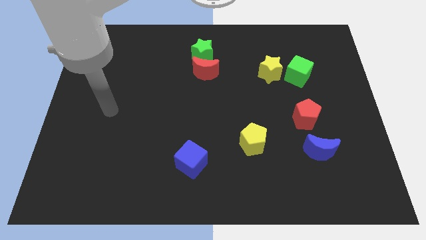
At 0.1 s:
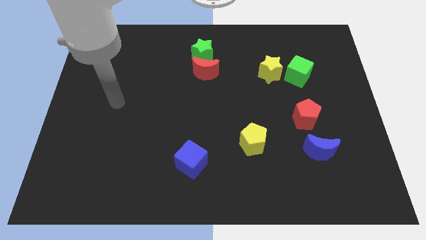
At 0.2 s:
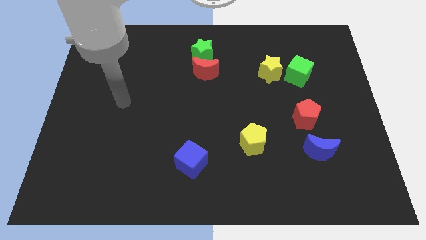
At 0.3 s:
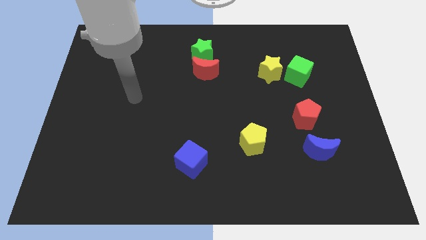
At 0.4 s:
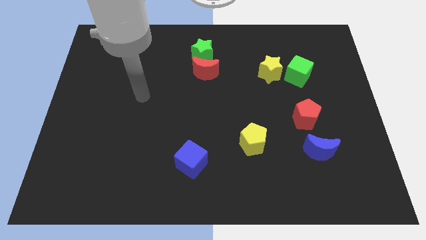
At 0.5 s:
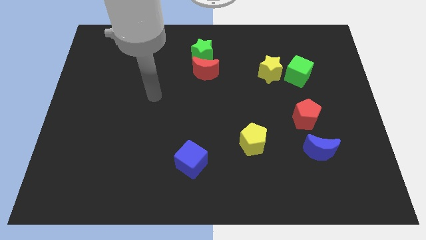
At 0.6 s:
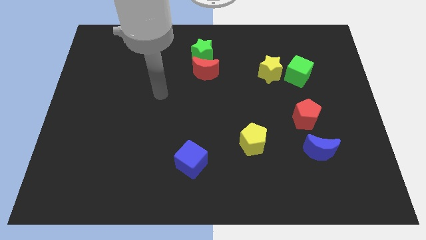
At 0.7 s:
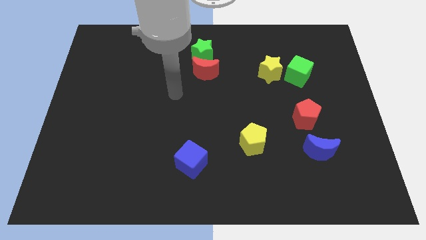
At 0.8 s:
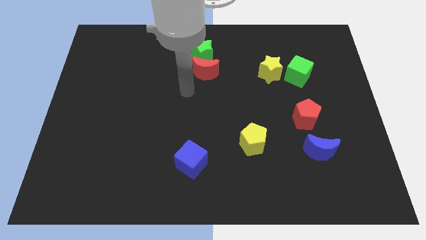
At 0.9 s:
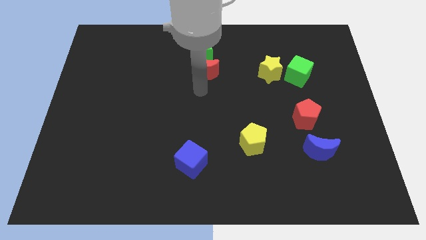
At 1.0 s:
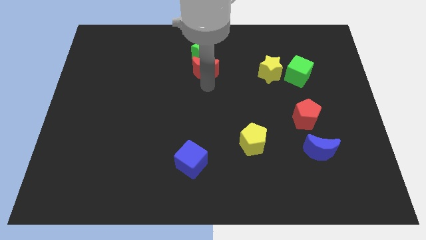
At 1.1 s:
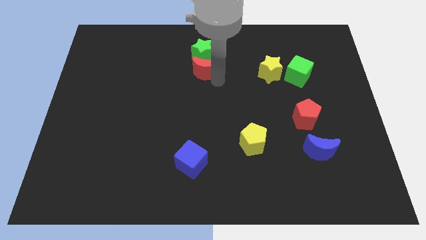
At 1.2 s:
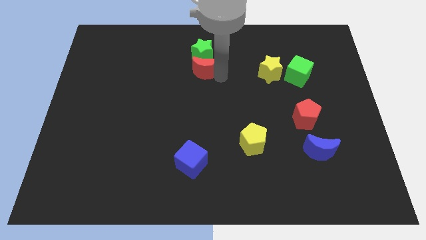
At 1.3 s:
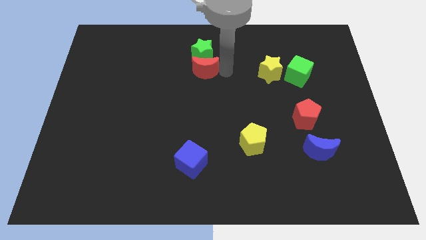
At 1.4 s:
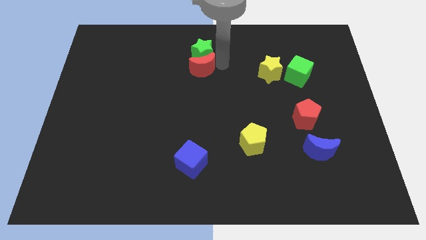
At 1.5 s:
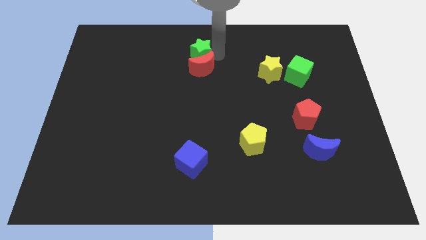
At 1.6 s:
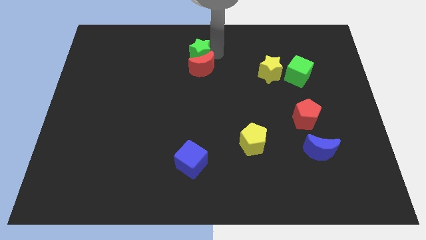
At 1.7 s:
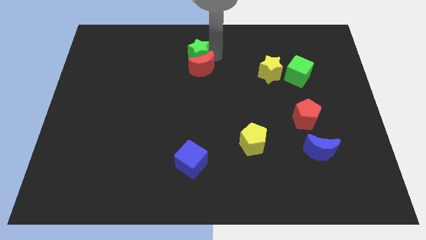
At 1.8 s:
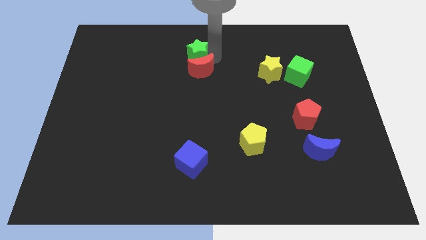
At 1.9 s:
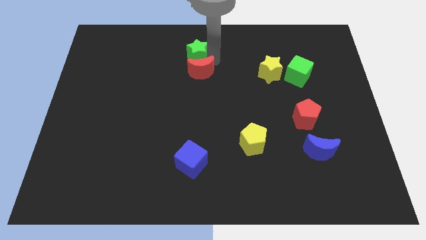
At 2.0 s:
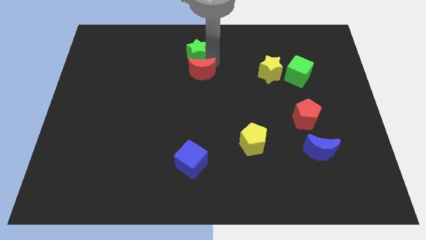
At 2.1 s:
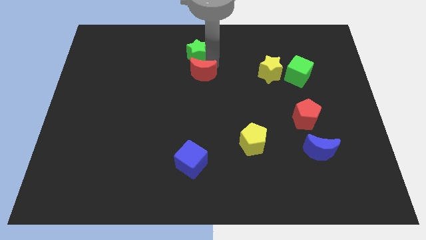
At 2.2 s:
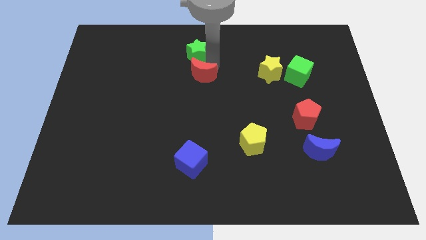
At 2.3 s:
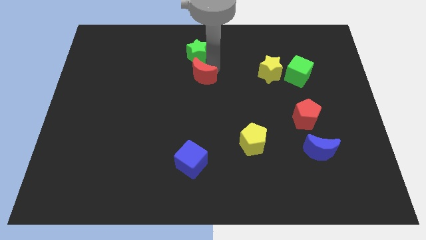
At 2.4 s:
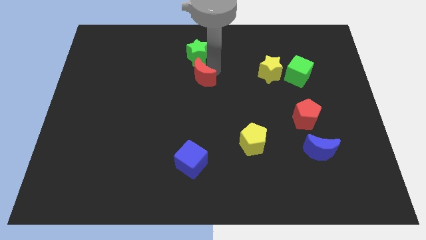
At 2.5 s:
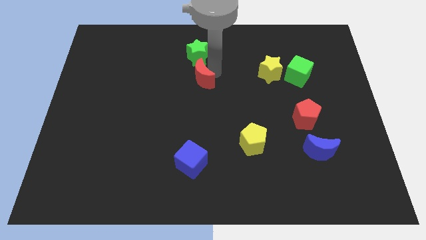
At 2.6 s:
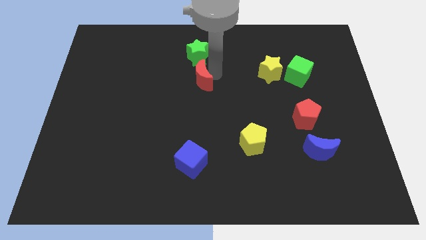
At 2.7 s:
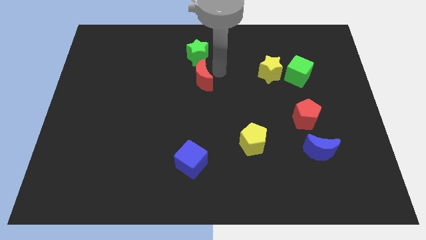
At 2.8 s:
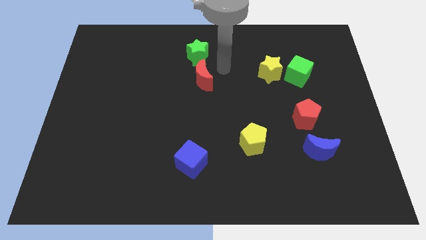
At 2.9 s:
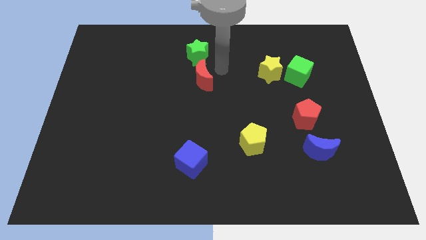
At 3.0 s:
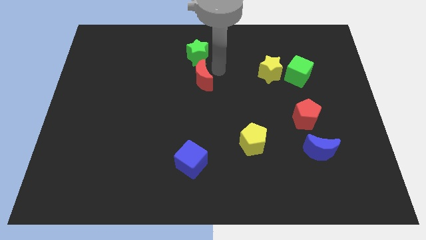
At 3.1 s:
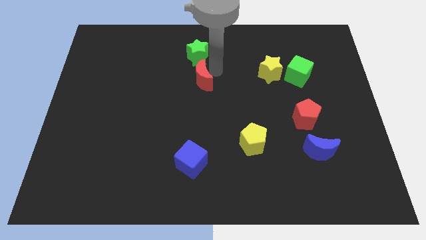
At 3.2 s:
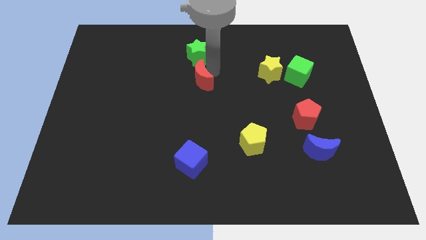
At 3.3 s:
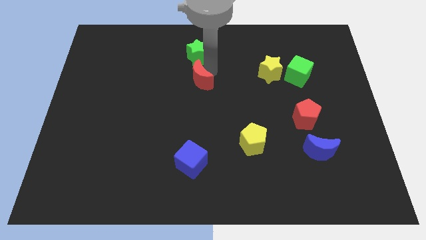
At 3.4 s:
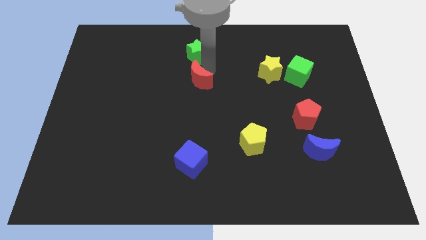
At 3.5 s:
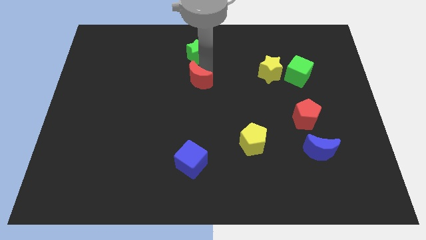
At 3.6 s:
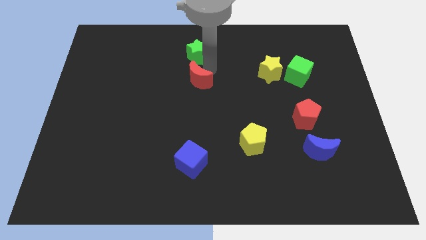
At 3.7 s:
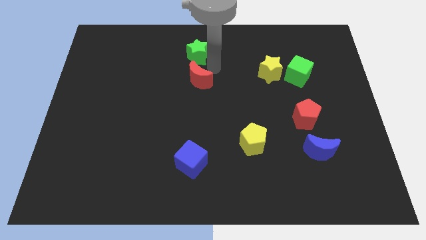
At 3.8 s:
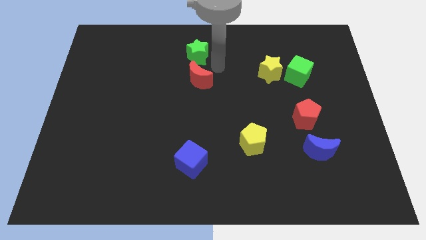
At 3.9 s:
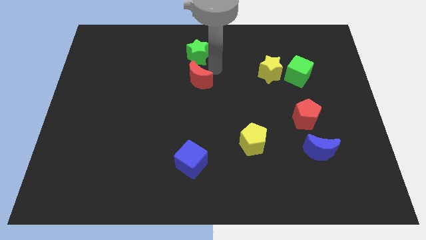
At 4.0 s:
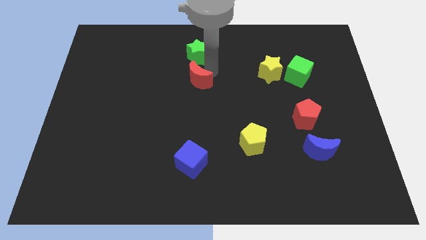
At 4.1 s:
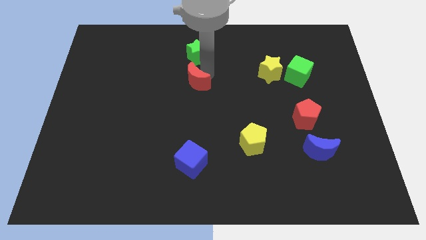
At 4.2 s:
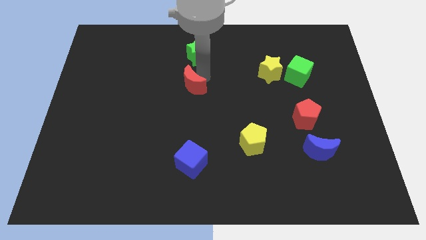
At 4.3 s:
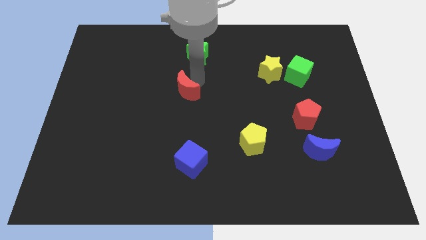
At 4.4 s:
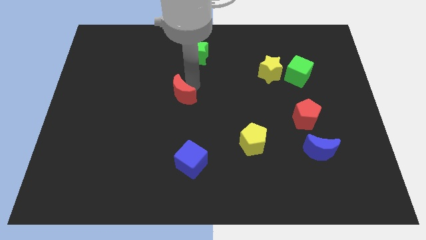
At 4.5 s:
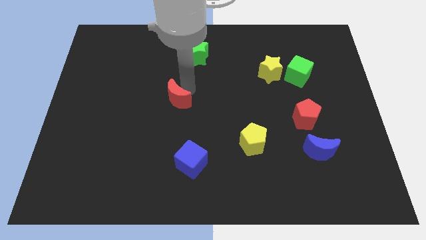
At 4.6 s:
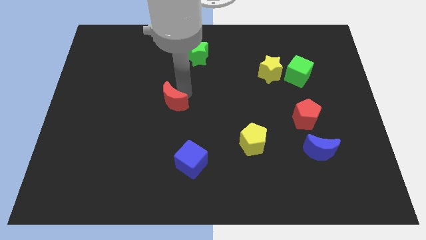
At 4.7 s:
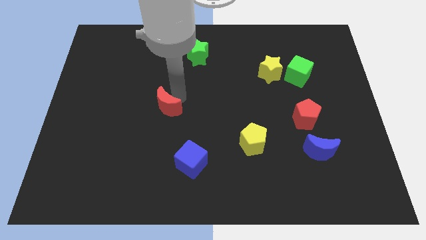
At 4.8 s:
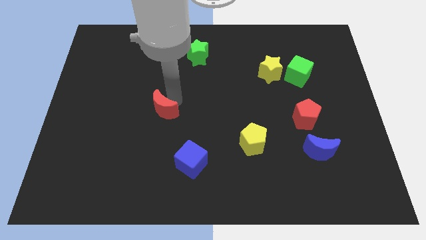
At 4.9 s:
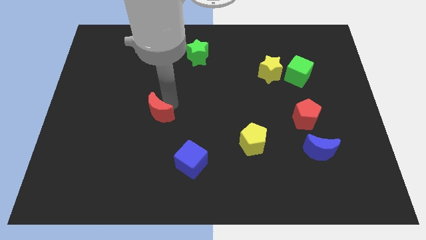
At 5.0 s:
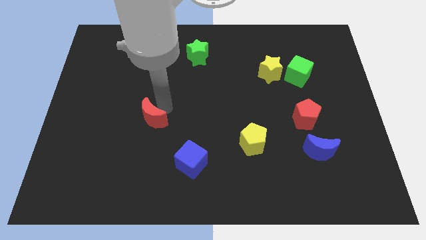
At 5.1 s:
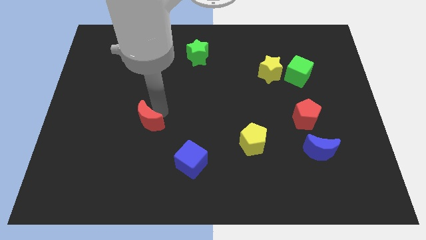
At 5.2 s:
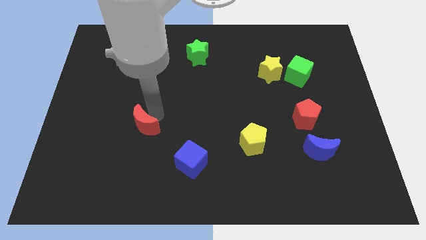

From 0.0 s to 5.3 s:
push the red moon downwards and left diagonally

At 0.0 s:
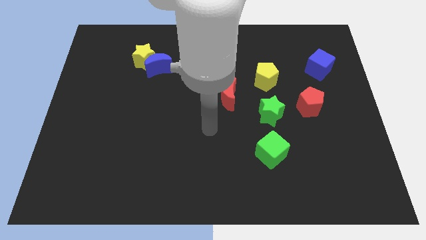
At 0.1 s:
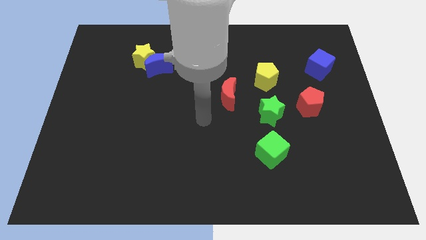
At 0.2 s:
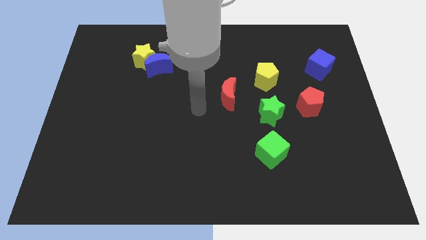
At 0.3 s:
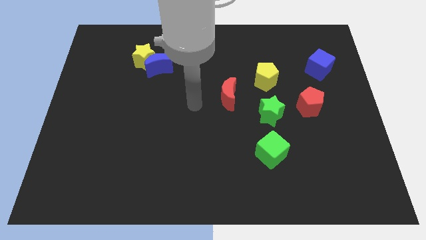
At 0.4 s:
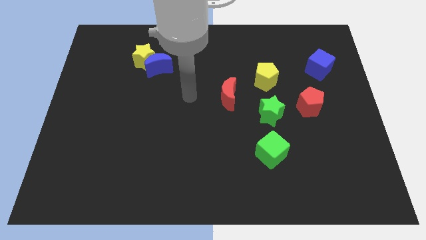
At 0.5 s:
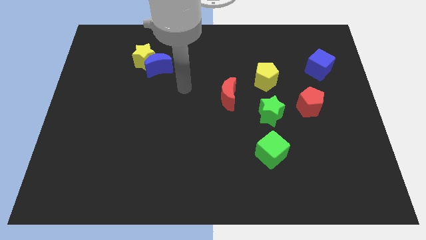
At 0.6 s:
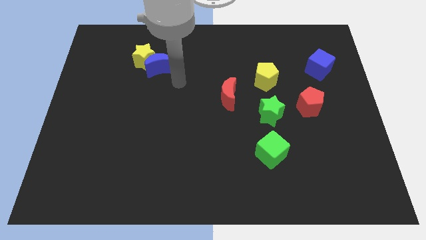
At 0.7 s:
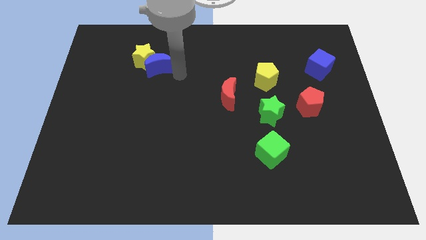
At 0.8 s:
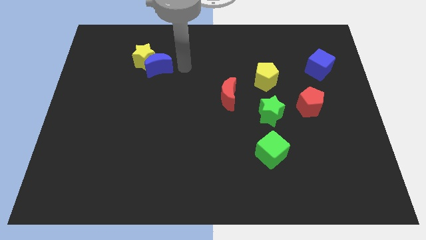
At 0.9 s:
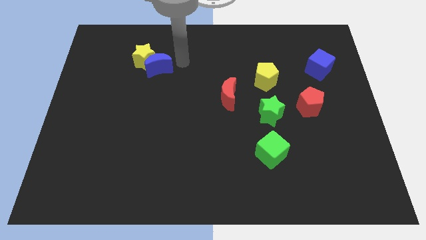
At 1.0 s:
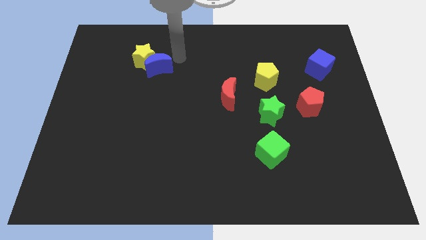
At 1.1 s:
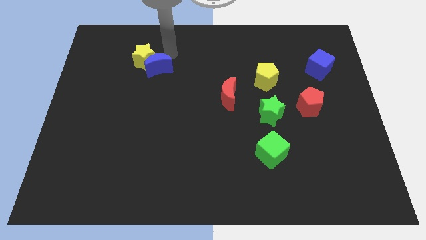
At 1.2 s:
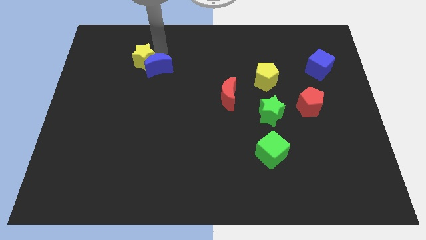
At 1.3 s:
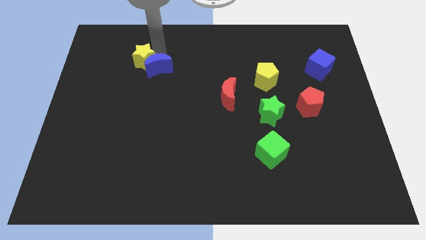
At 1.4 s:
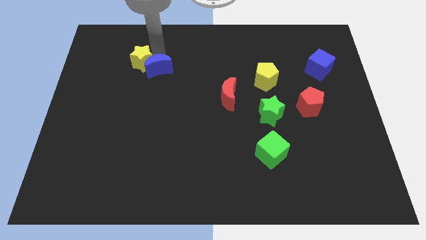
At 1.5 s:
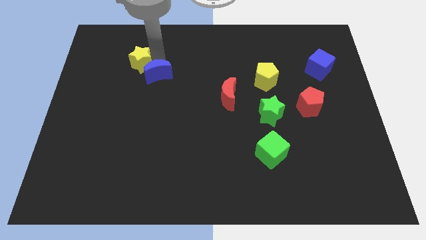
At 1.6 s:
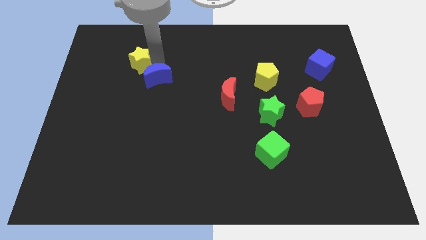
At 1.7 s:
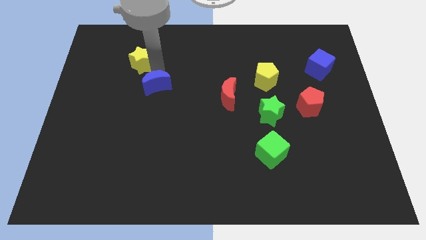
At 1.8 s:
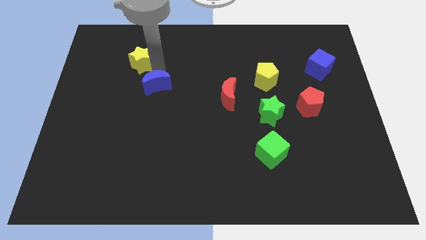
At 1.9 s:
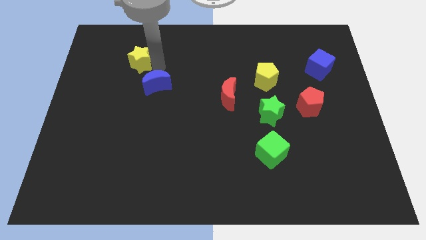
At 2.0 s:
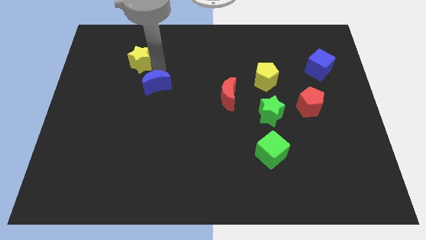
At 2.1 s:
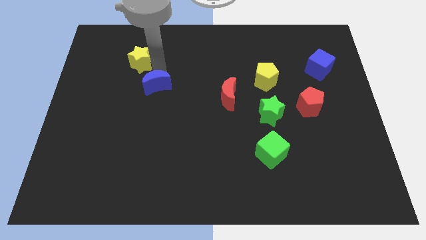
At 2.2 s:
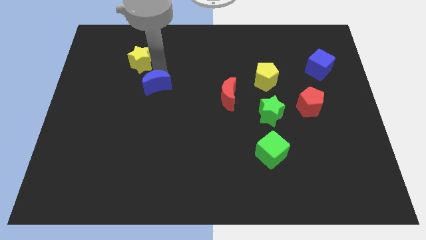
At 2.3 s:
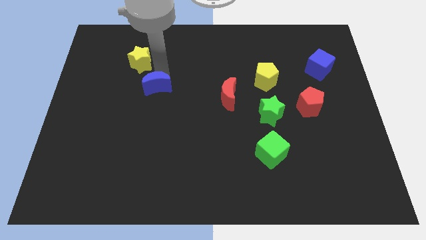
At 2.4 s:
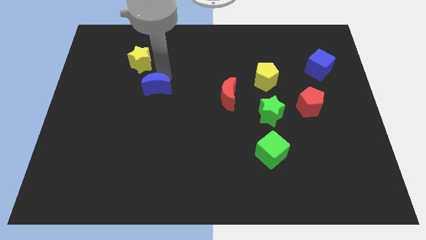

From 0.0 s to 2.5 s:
slide the blue moon down slightly

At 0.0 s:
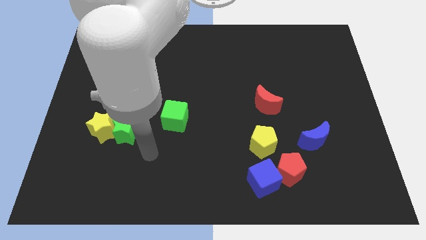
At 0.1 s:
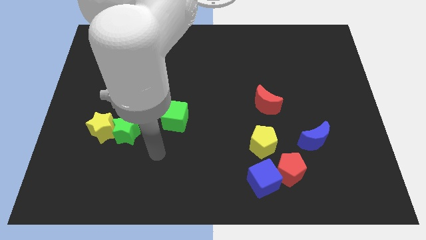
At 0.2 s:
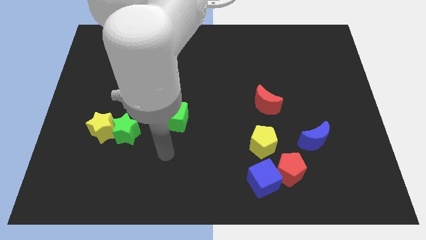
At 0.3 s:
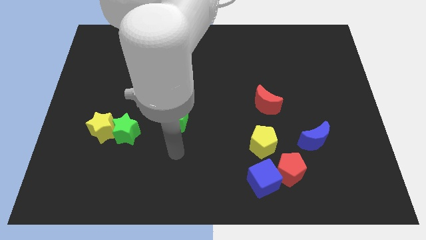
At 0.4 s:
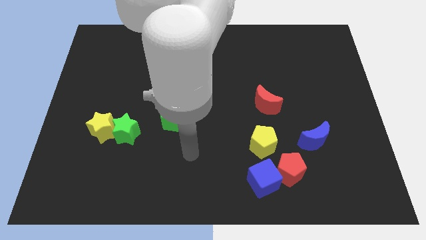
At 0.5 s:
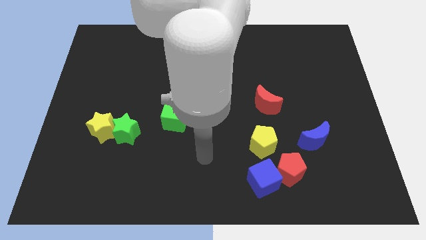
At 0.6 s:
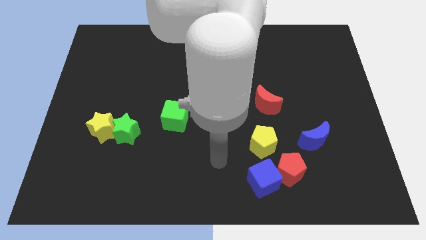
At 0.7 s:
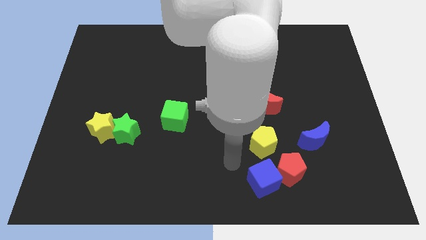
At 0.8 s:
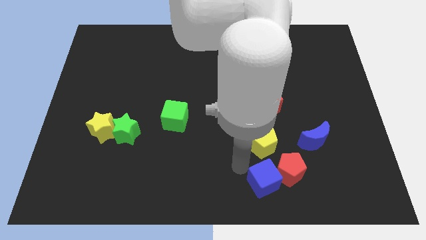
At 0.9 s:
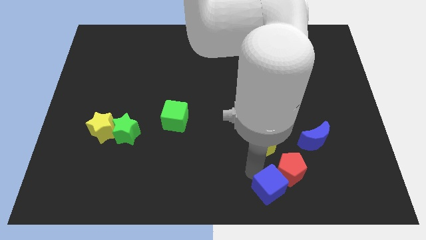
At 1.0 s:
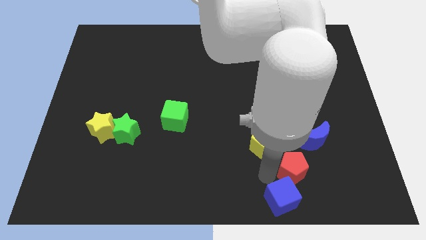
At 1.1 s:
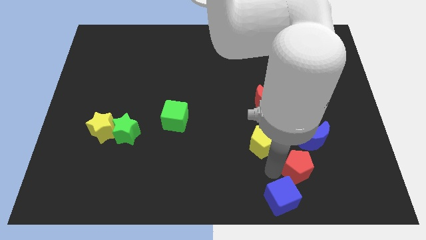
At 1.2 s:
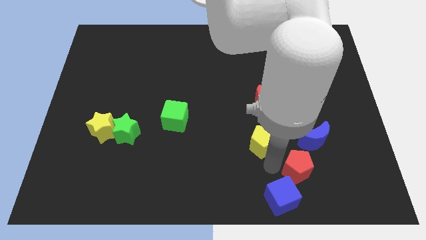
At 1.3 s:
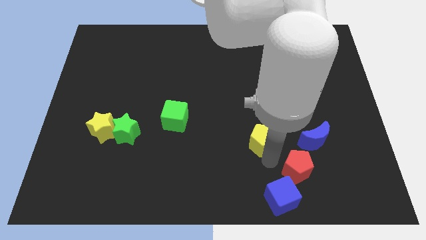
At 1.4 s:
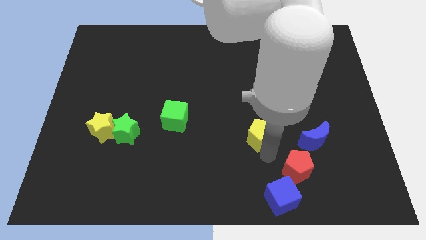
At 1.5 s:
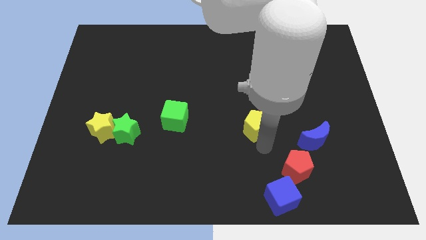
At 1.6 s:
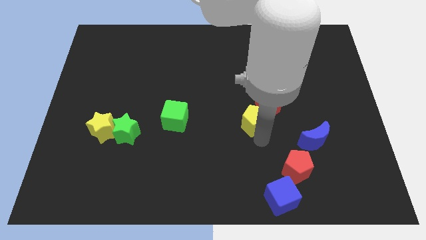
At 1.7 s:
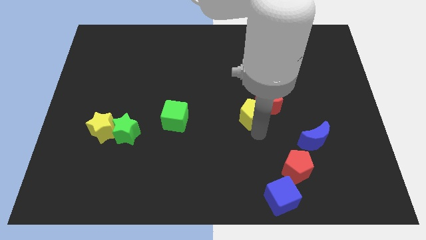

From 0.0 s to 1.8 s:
slide the yellow pentagon slightly upwards
